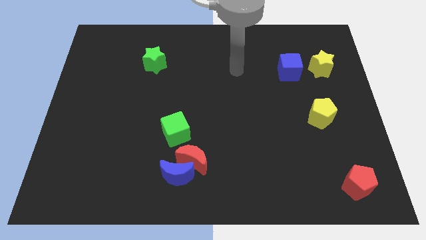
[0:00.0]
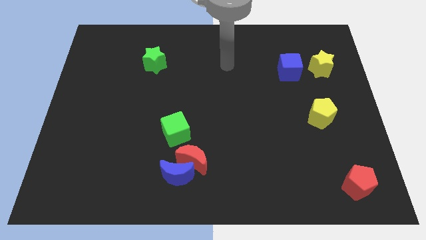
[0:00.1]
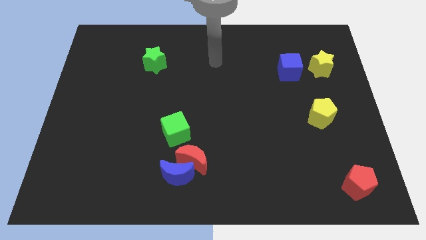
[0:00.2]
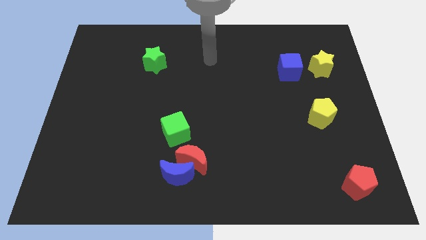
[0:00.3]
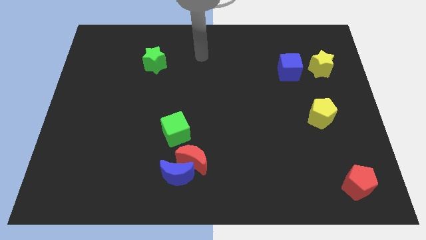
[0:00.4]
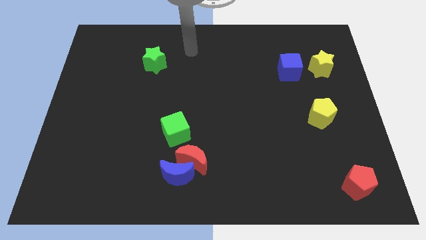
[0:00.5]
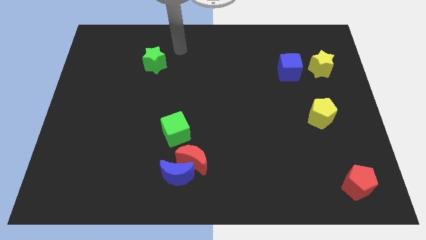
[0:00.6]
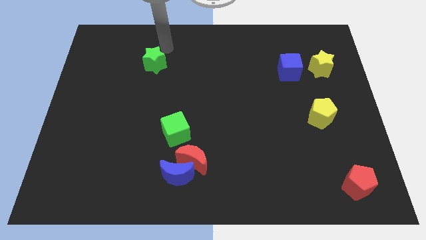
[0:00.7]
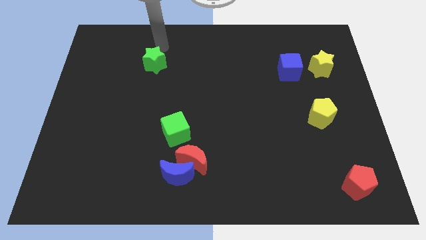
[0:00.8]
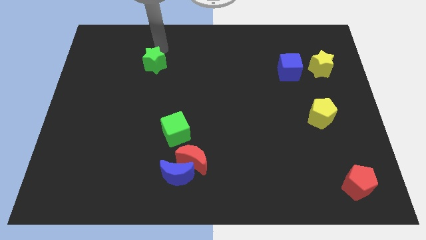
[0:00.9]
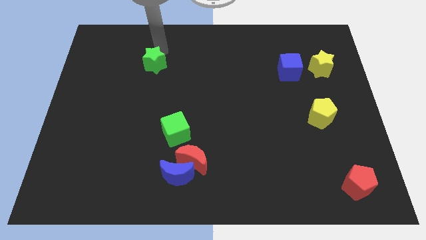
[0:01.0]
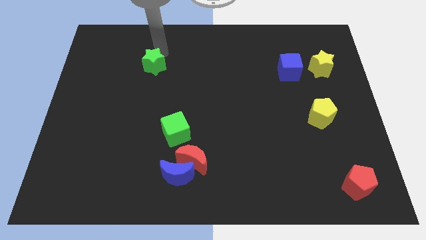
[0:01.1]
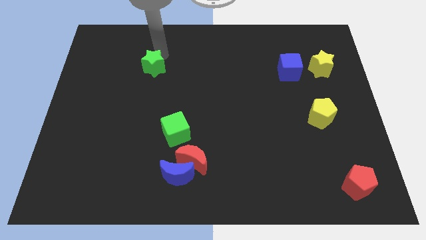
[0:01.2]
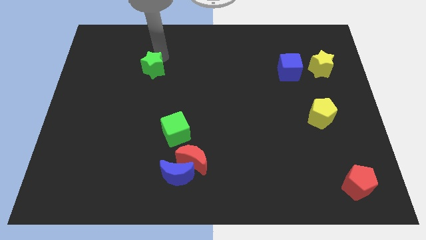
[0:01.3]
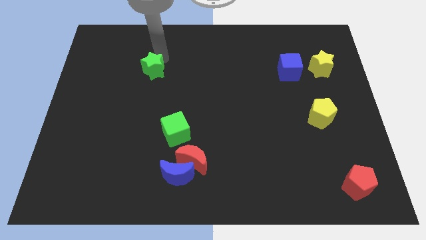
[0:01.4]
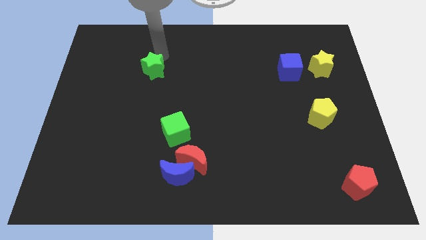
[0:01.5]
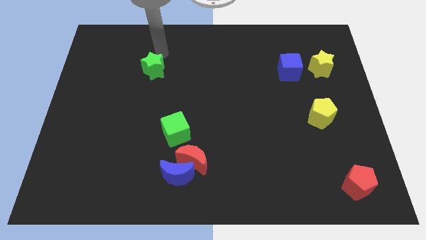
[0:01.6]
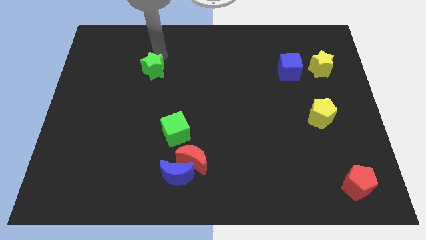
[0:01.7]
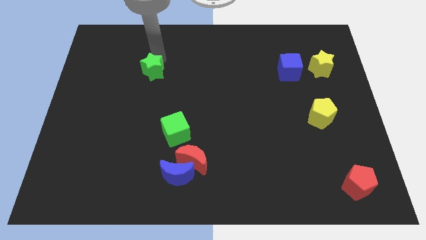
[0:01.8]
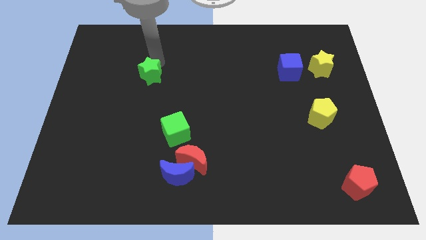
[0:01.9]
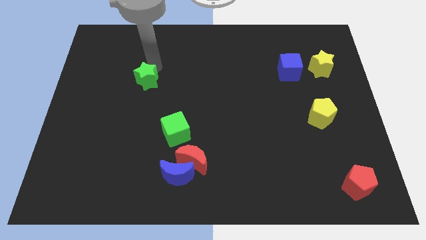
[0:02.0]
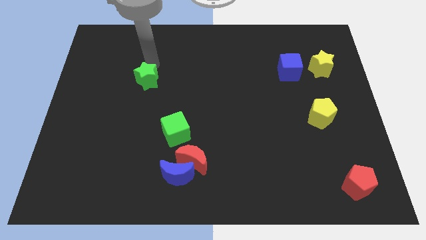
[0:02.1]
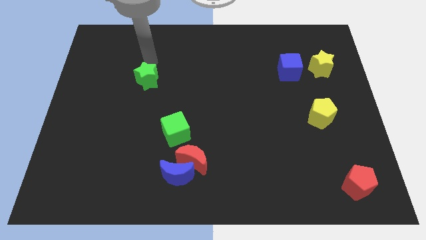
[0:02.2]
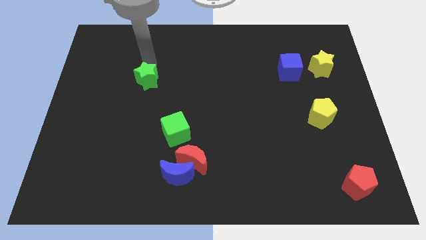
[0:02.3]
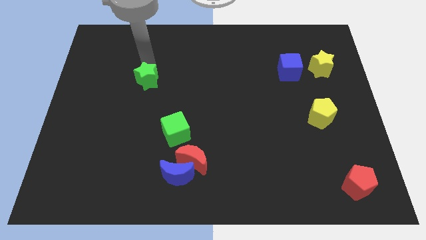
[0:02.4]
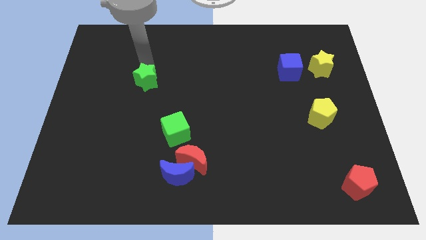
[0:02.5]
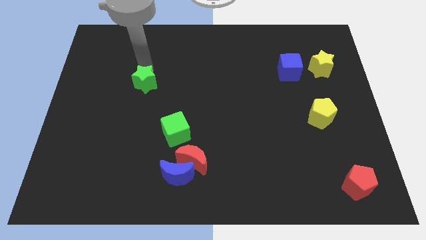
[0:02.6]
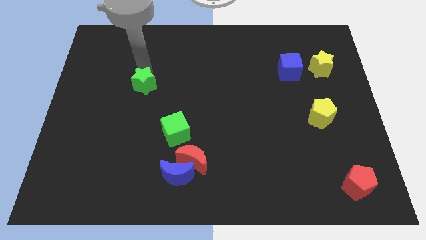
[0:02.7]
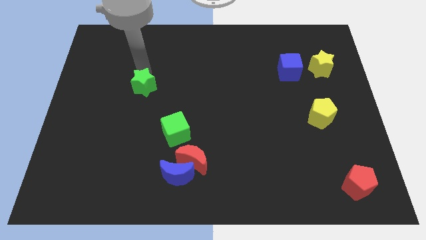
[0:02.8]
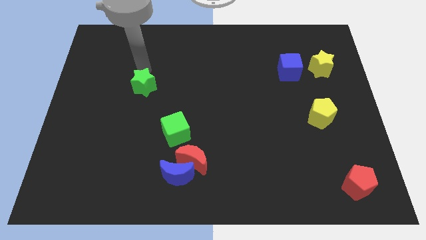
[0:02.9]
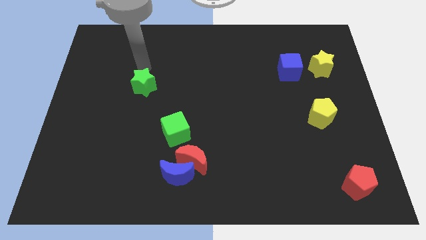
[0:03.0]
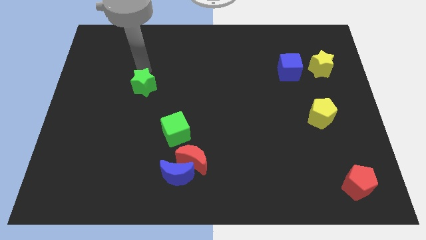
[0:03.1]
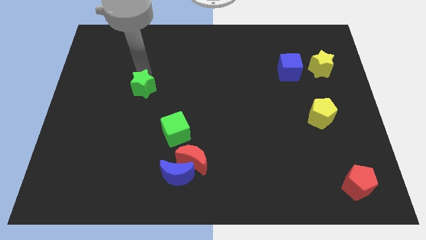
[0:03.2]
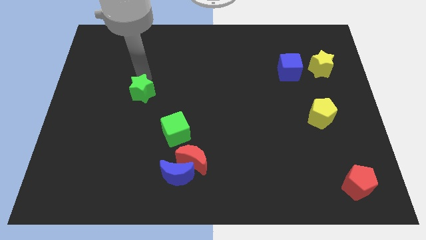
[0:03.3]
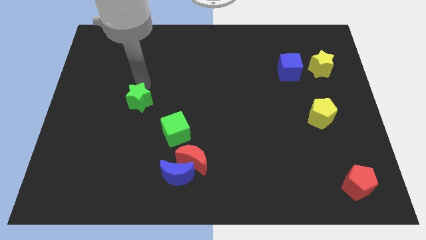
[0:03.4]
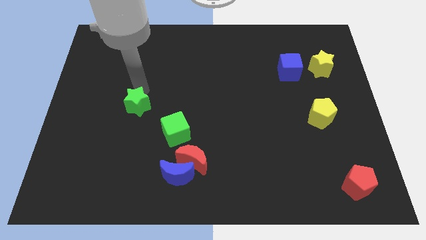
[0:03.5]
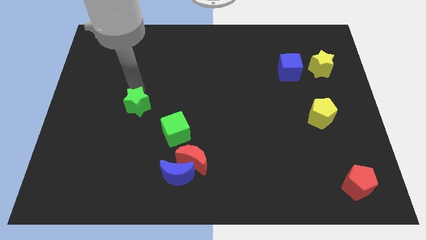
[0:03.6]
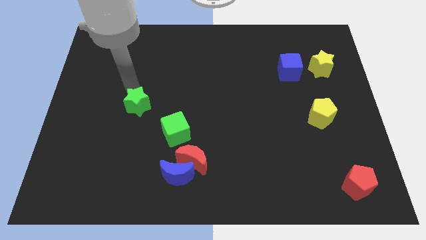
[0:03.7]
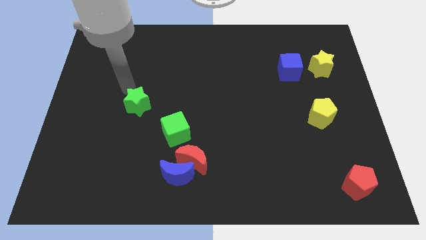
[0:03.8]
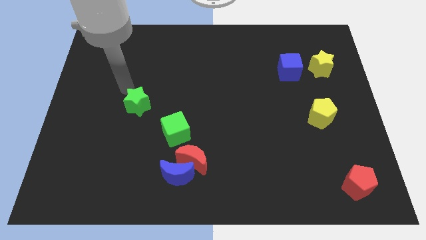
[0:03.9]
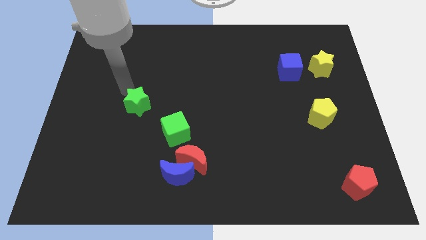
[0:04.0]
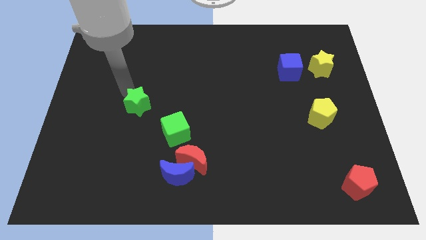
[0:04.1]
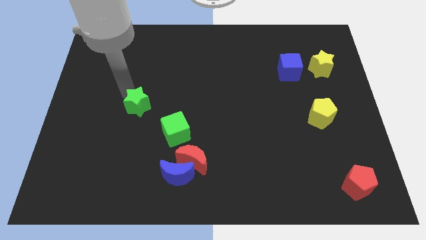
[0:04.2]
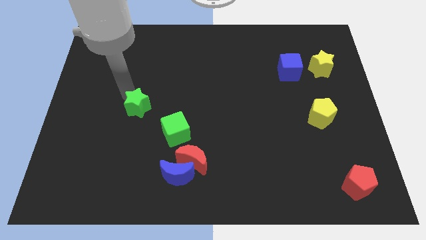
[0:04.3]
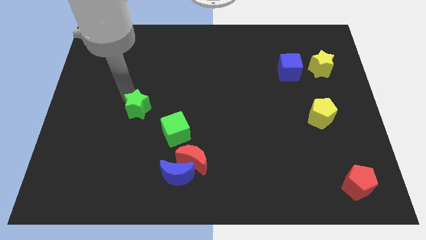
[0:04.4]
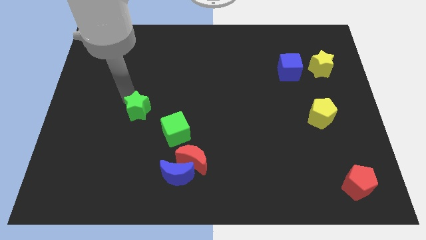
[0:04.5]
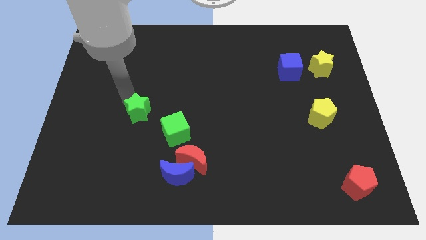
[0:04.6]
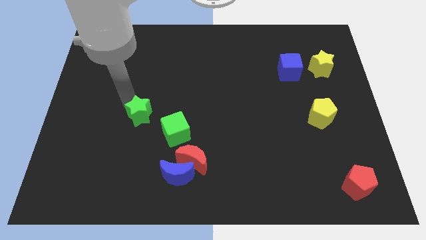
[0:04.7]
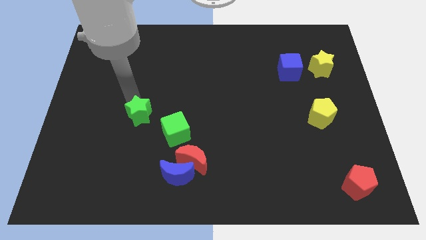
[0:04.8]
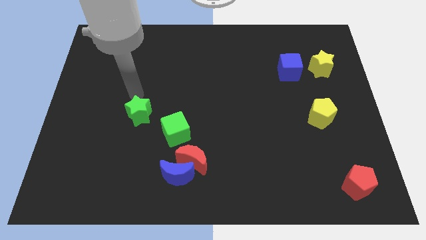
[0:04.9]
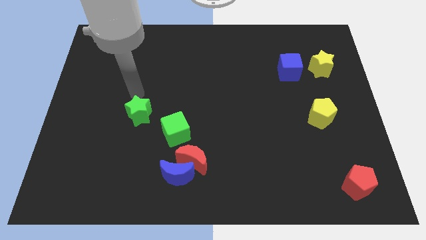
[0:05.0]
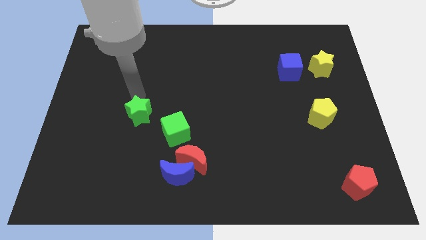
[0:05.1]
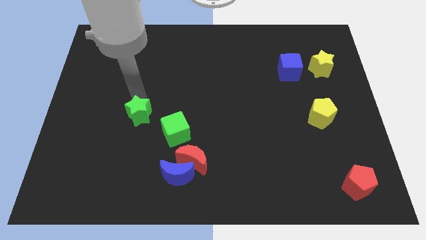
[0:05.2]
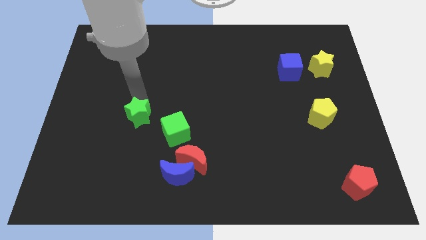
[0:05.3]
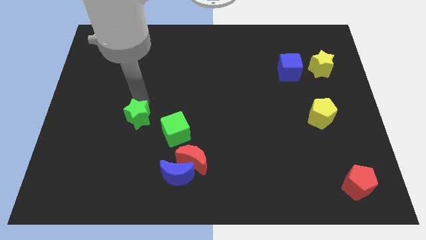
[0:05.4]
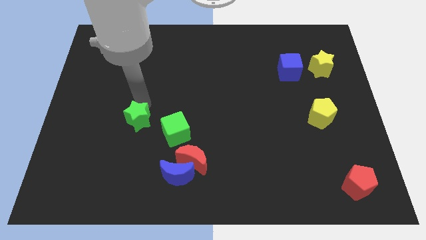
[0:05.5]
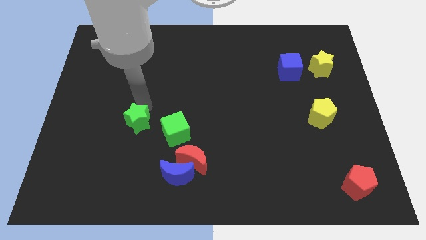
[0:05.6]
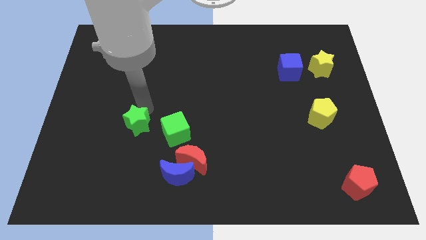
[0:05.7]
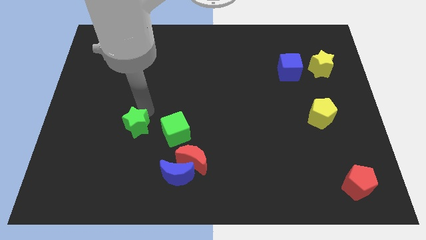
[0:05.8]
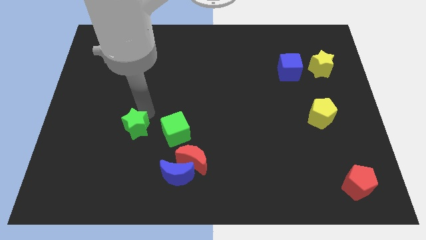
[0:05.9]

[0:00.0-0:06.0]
move the green star down

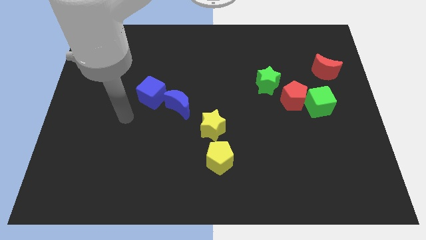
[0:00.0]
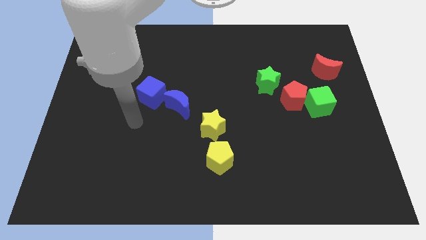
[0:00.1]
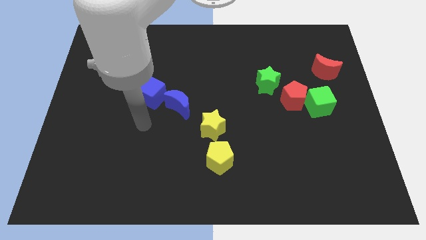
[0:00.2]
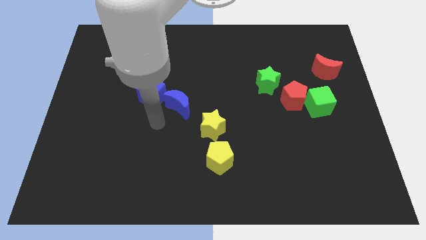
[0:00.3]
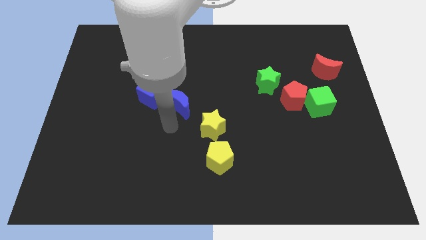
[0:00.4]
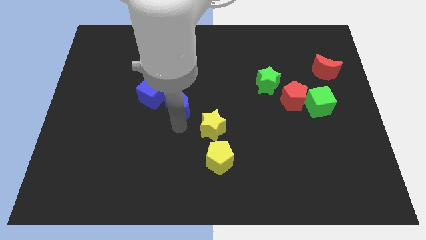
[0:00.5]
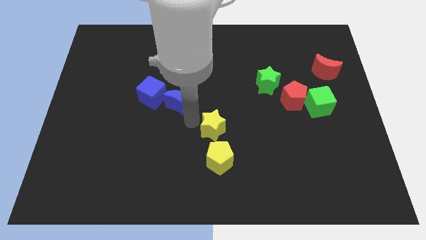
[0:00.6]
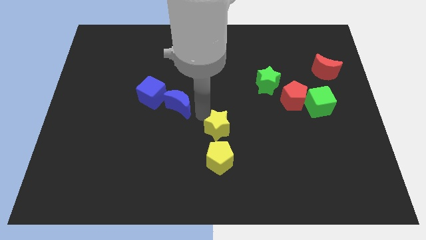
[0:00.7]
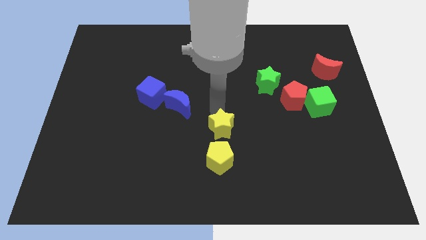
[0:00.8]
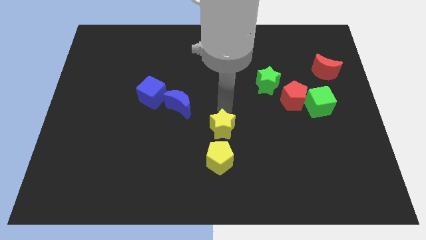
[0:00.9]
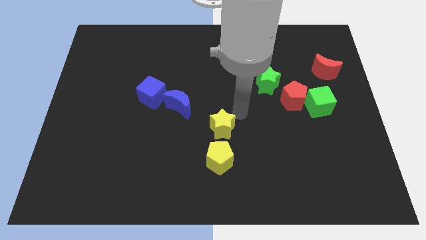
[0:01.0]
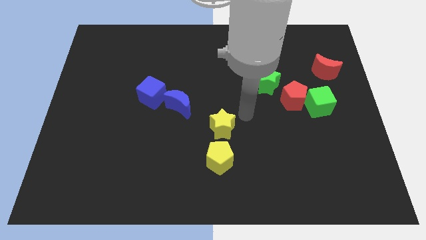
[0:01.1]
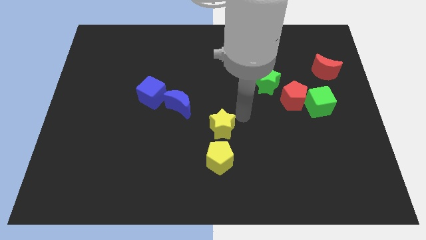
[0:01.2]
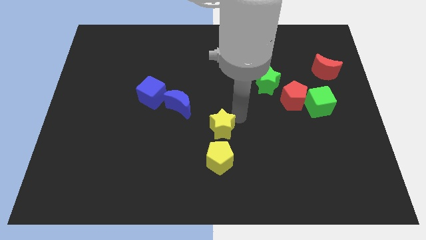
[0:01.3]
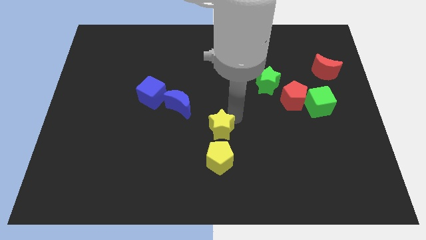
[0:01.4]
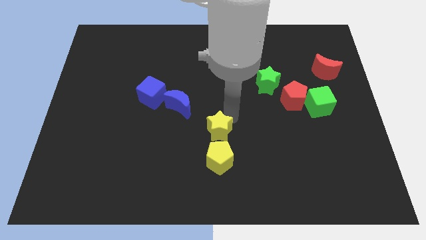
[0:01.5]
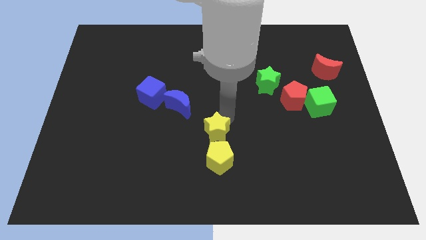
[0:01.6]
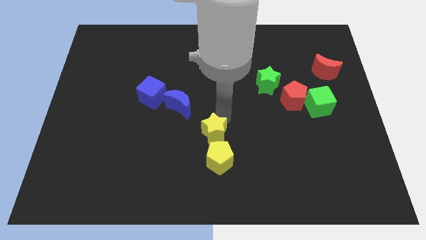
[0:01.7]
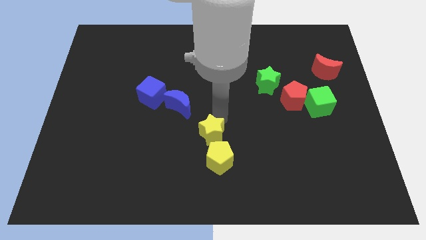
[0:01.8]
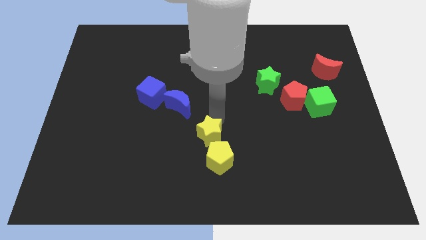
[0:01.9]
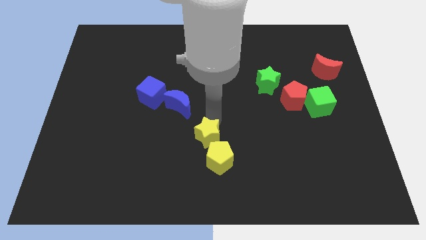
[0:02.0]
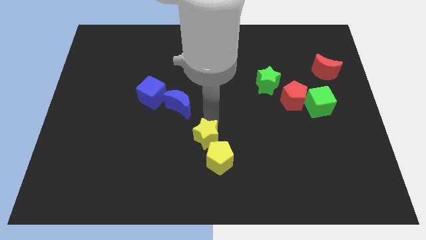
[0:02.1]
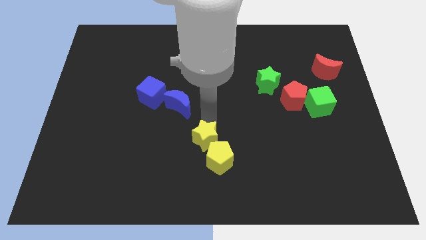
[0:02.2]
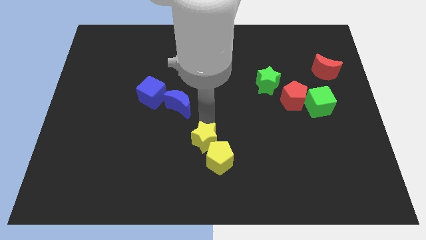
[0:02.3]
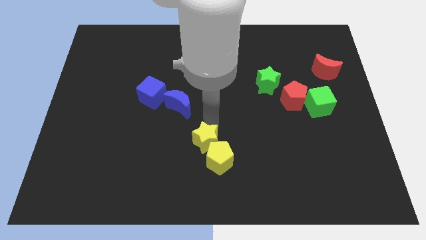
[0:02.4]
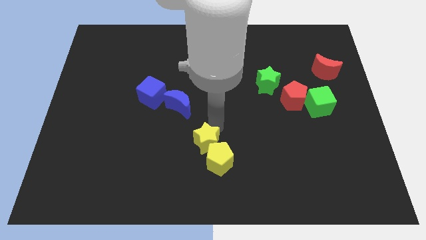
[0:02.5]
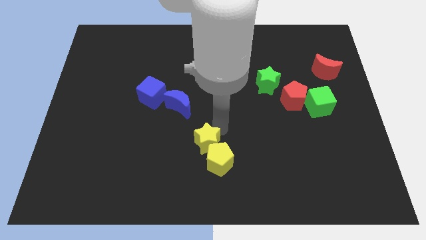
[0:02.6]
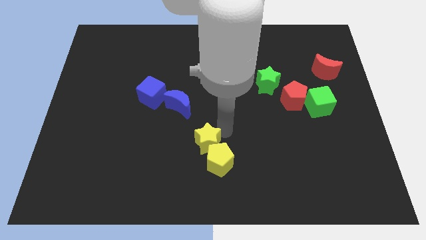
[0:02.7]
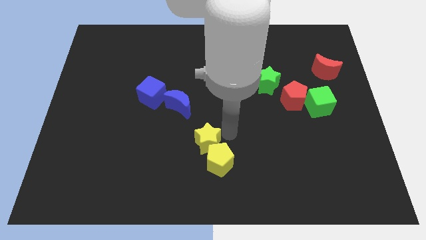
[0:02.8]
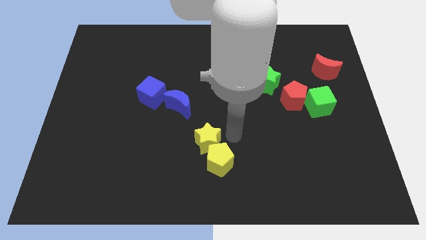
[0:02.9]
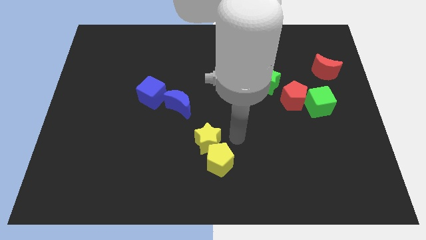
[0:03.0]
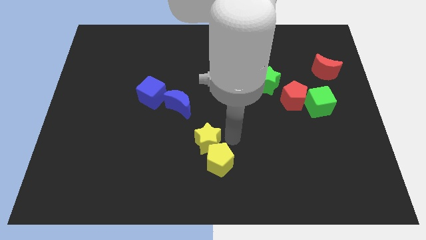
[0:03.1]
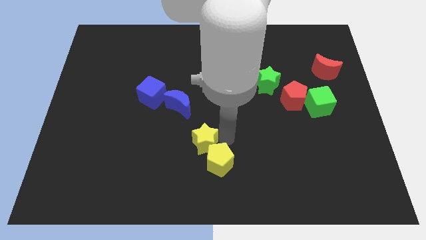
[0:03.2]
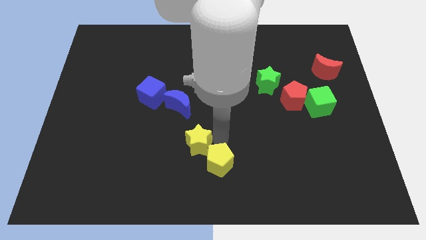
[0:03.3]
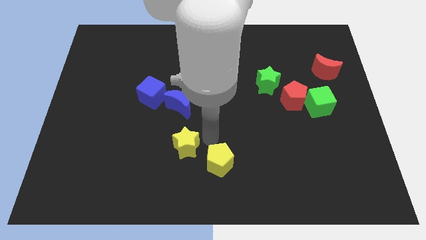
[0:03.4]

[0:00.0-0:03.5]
push the yellow star a little down and then to the left
